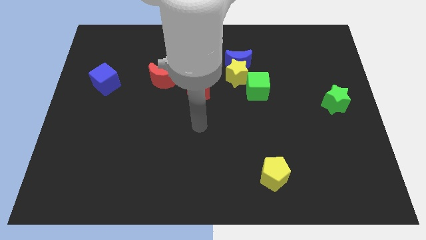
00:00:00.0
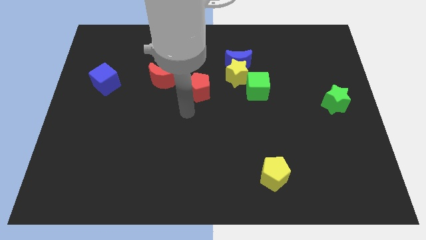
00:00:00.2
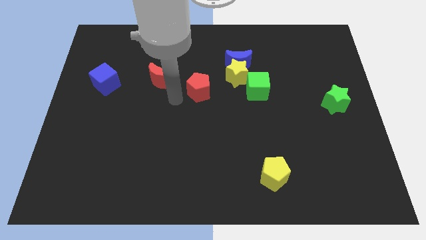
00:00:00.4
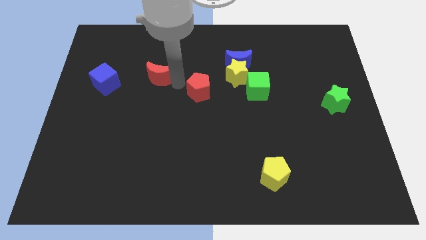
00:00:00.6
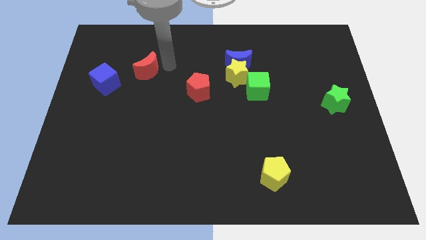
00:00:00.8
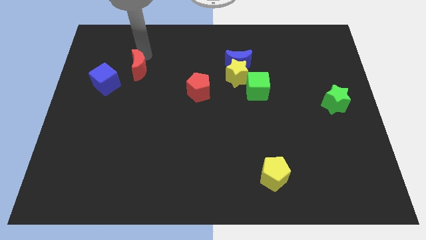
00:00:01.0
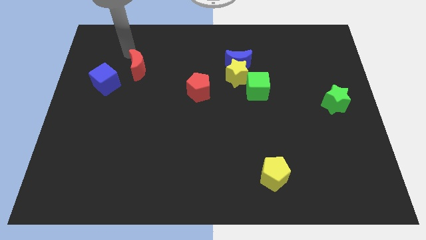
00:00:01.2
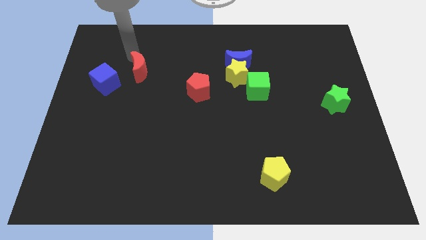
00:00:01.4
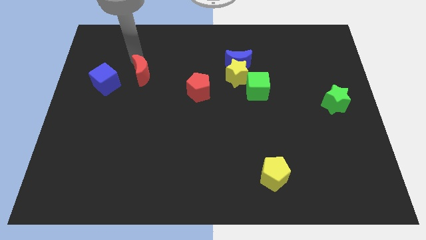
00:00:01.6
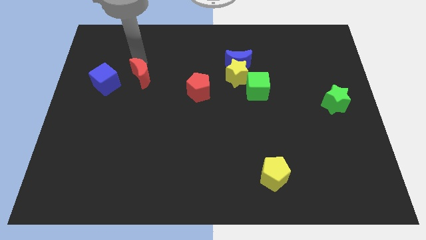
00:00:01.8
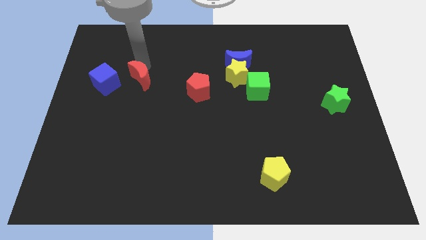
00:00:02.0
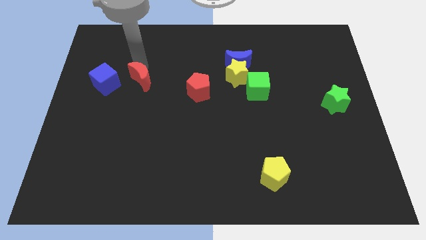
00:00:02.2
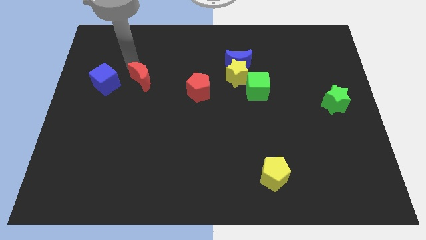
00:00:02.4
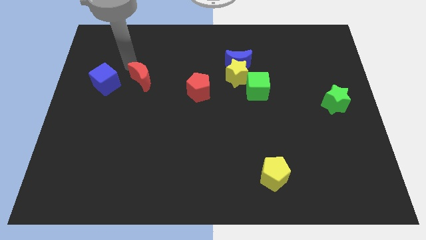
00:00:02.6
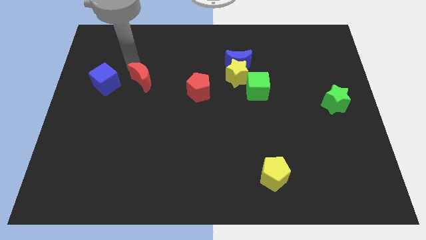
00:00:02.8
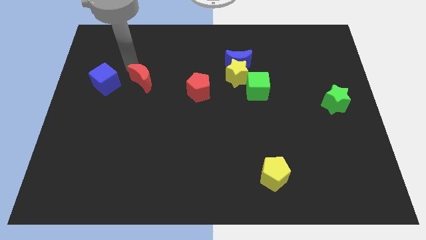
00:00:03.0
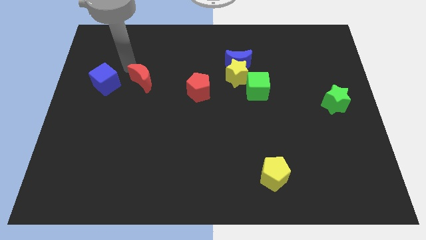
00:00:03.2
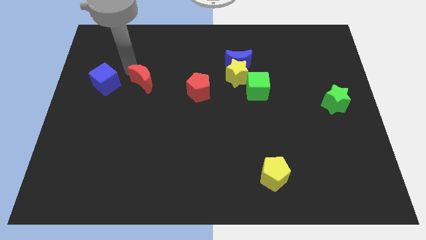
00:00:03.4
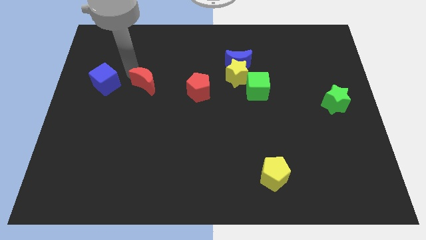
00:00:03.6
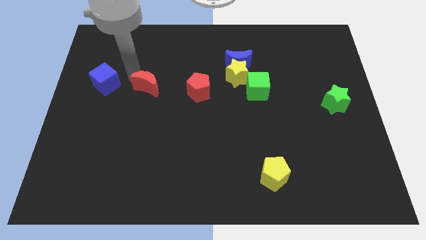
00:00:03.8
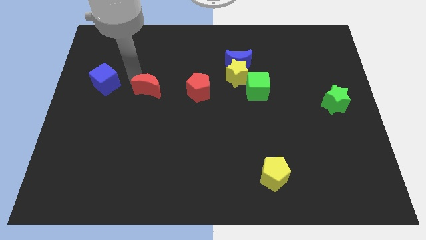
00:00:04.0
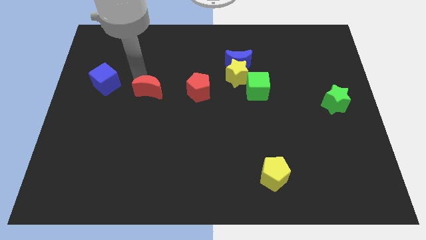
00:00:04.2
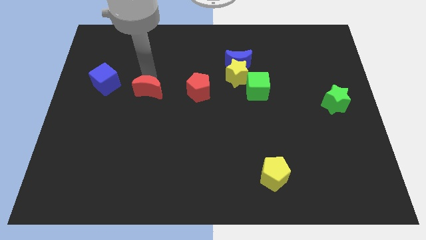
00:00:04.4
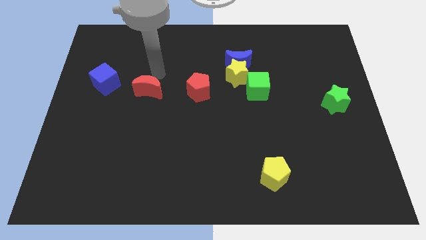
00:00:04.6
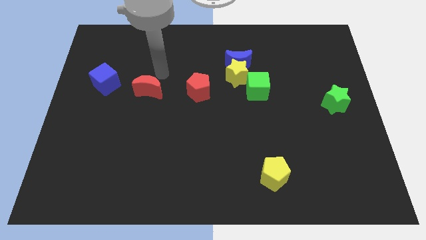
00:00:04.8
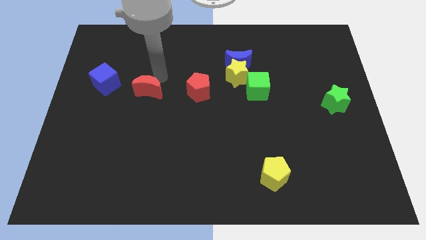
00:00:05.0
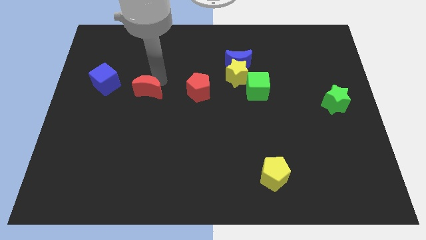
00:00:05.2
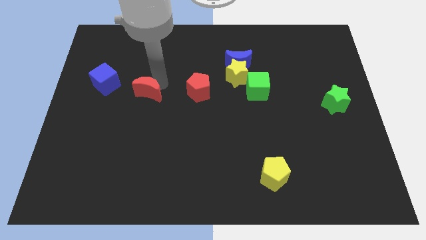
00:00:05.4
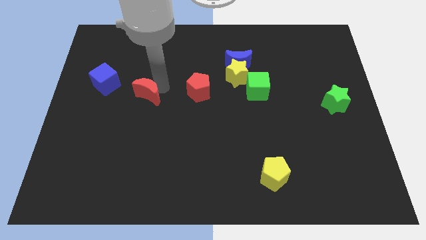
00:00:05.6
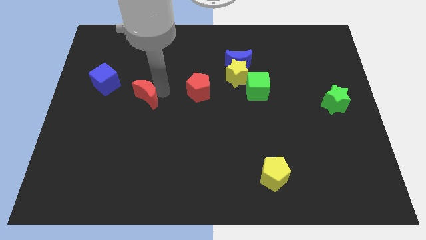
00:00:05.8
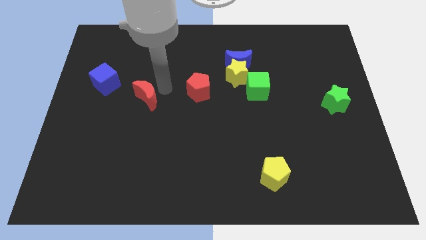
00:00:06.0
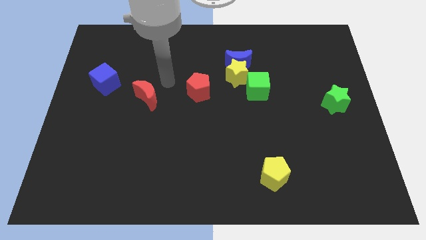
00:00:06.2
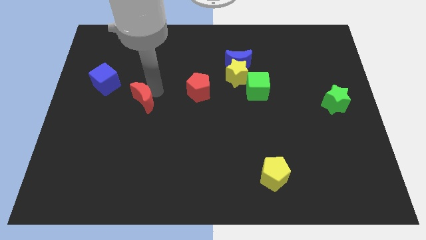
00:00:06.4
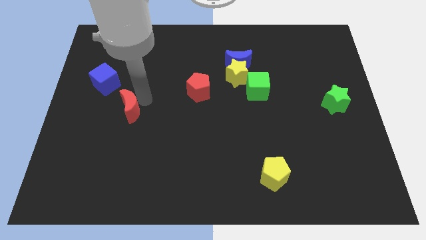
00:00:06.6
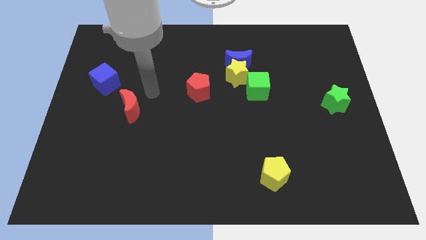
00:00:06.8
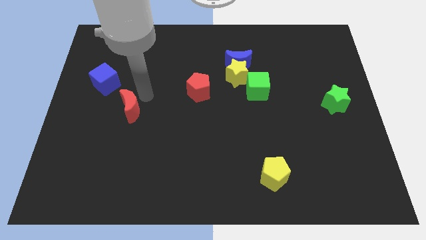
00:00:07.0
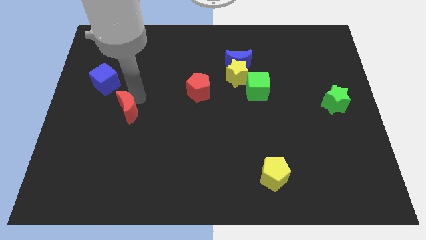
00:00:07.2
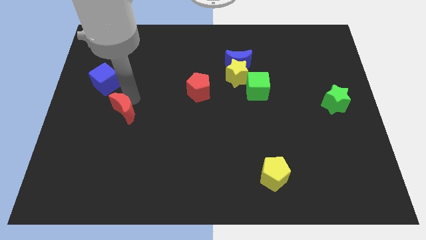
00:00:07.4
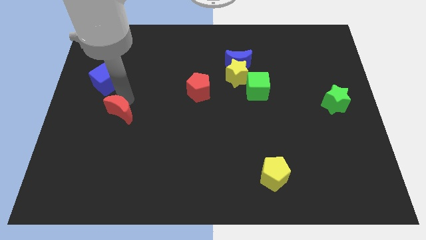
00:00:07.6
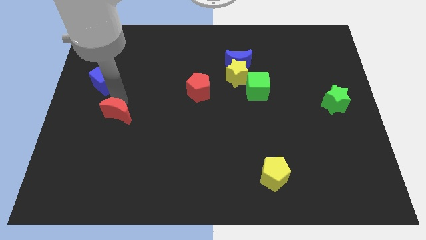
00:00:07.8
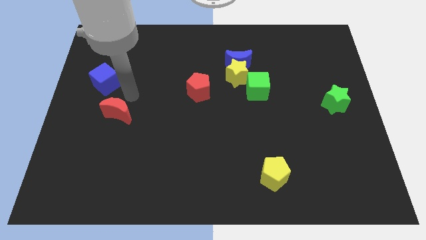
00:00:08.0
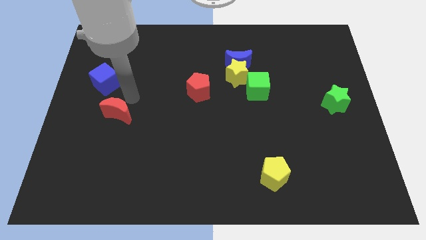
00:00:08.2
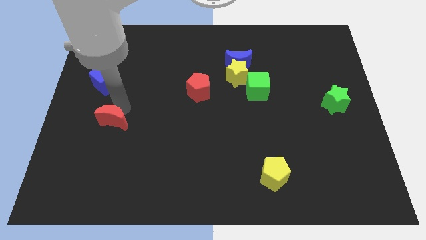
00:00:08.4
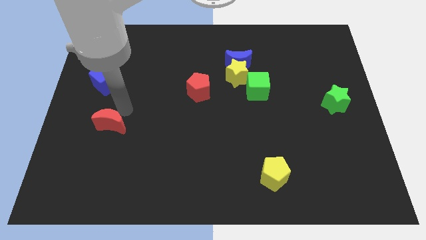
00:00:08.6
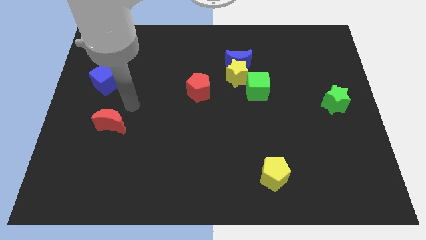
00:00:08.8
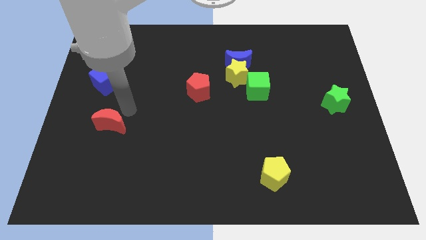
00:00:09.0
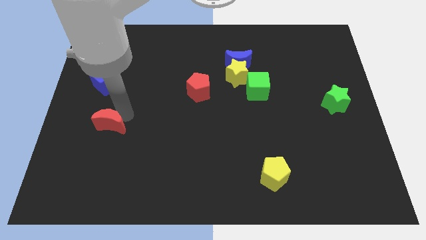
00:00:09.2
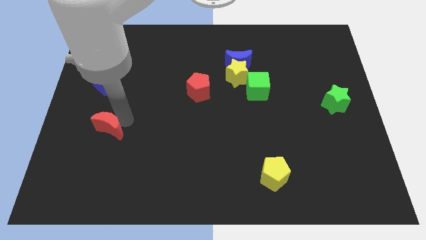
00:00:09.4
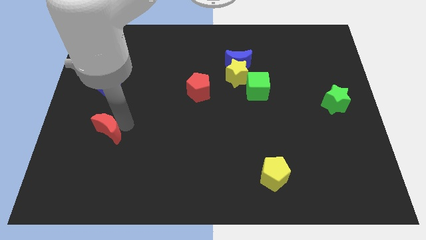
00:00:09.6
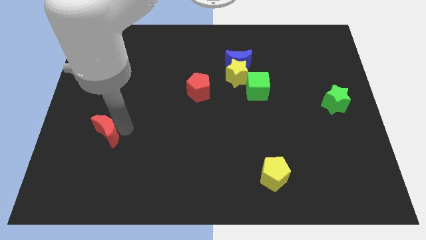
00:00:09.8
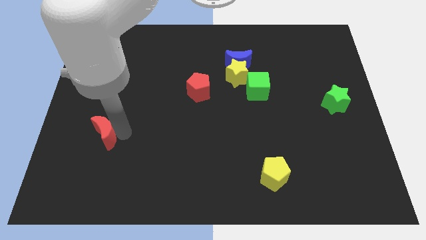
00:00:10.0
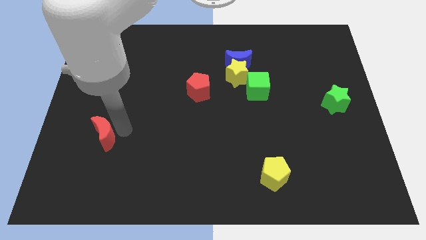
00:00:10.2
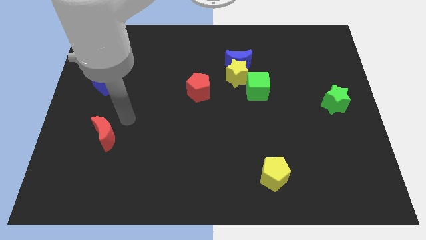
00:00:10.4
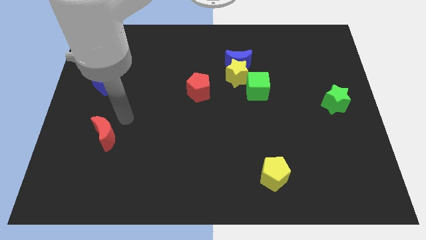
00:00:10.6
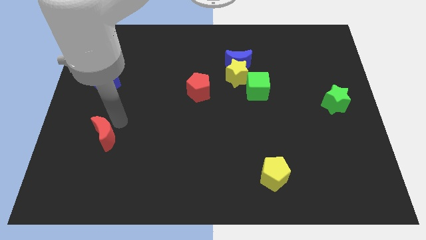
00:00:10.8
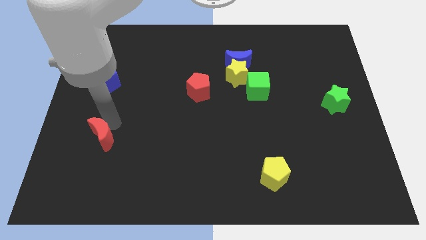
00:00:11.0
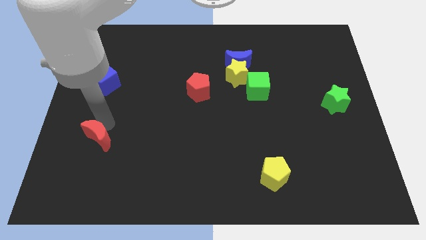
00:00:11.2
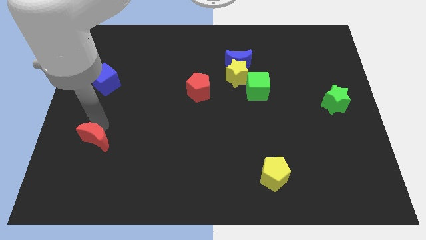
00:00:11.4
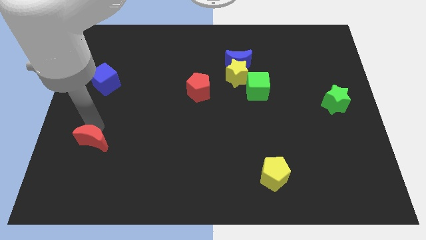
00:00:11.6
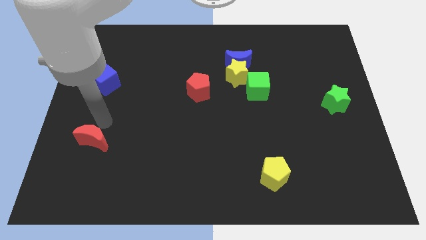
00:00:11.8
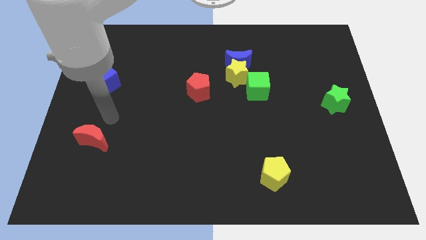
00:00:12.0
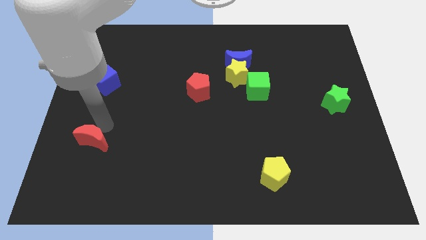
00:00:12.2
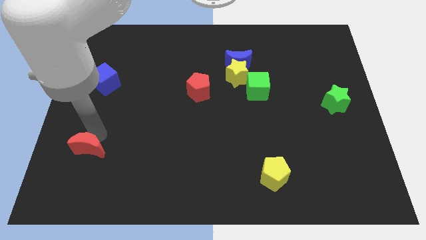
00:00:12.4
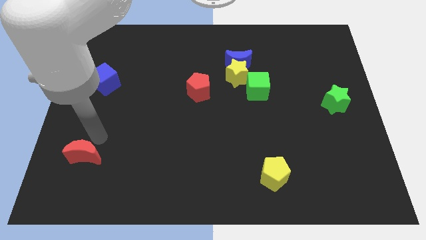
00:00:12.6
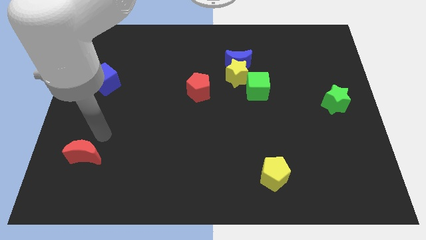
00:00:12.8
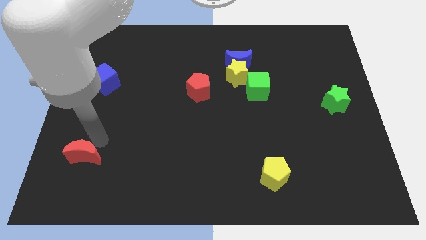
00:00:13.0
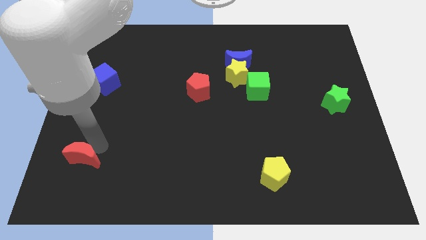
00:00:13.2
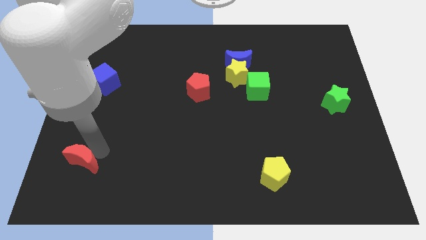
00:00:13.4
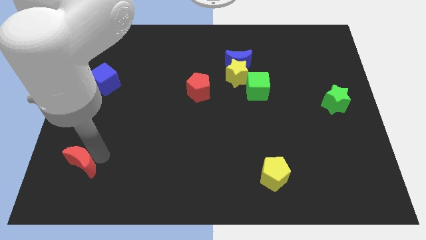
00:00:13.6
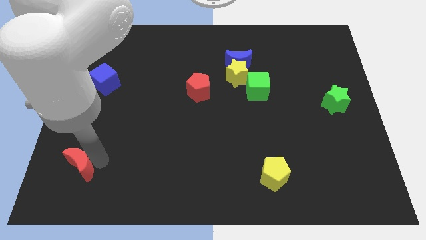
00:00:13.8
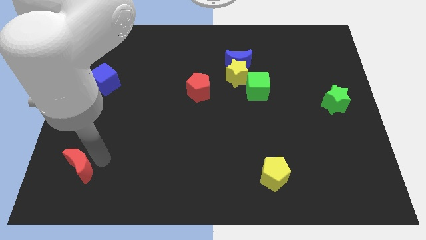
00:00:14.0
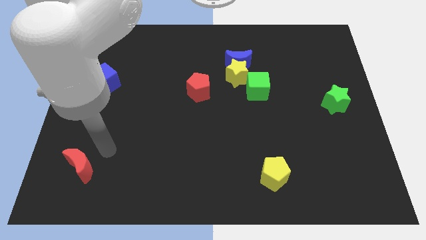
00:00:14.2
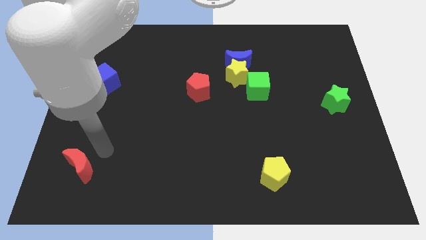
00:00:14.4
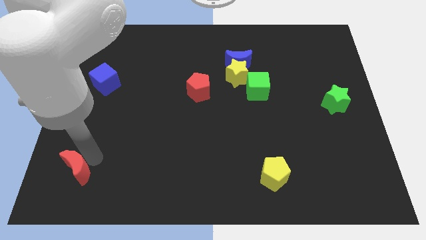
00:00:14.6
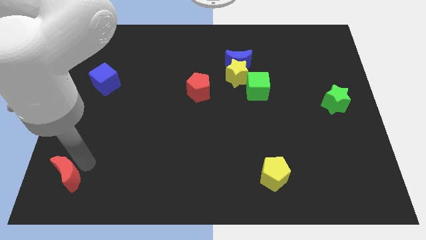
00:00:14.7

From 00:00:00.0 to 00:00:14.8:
slide the red moon to the bottom left
